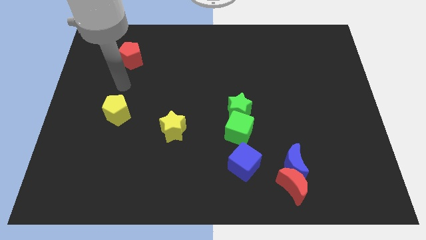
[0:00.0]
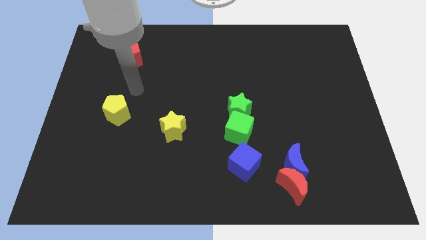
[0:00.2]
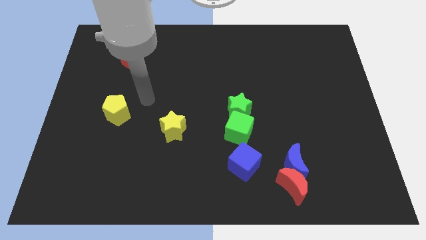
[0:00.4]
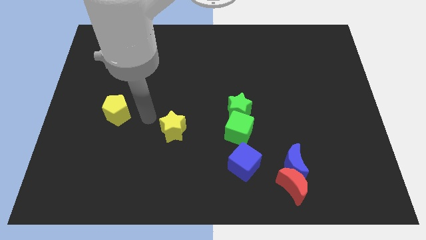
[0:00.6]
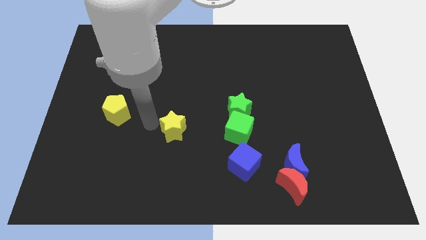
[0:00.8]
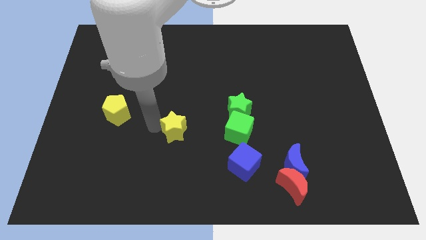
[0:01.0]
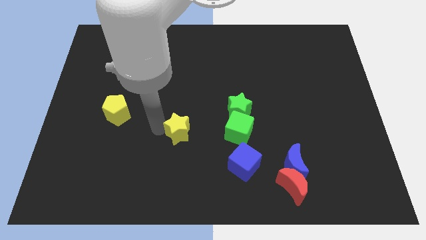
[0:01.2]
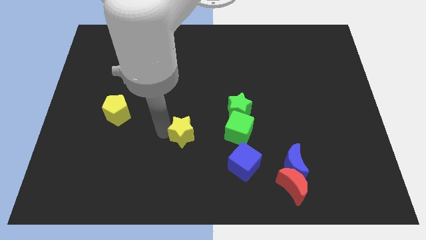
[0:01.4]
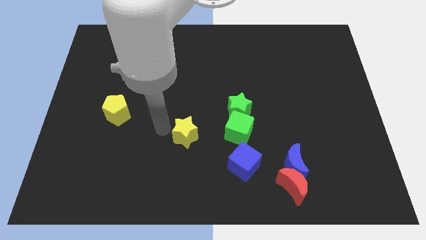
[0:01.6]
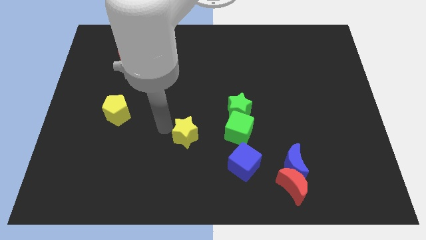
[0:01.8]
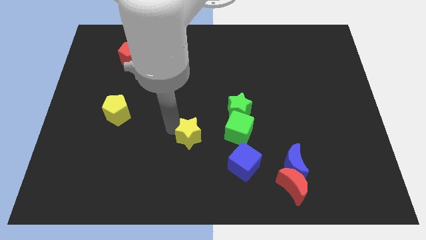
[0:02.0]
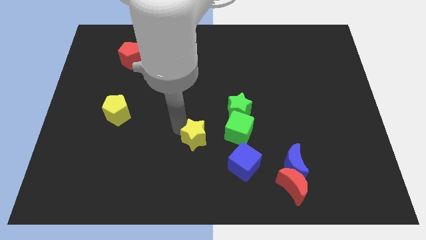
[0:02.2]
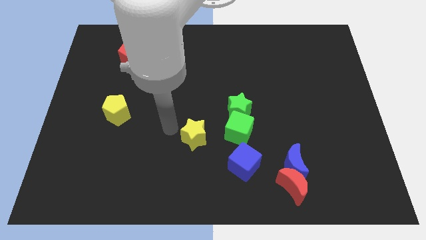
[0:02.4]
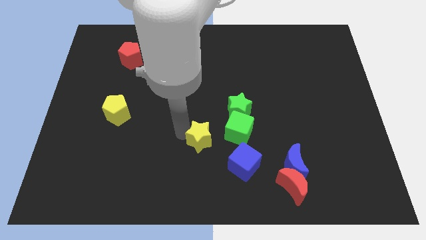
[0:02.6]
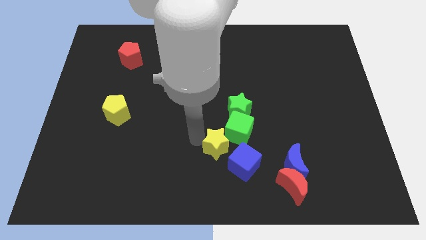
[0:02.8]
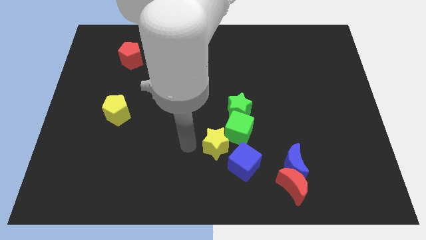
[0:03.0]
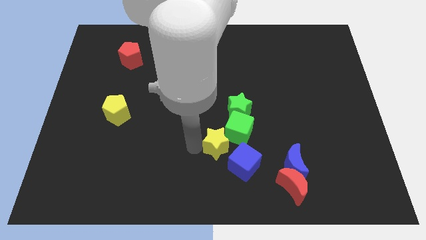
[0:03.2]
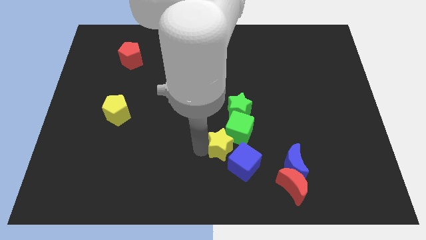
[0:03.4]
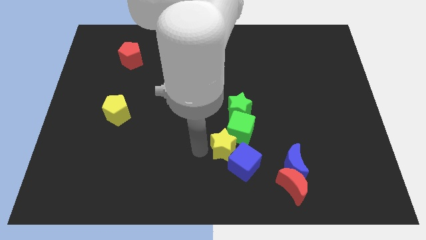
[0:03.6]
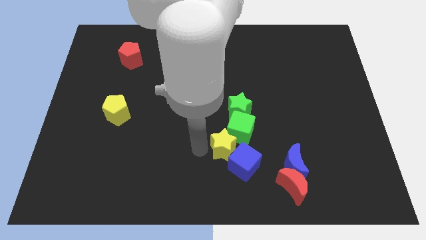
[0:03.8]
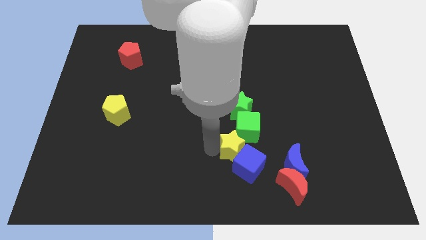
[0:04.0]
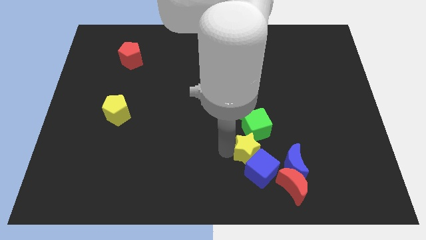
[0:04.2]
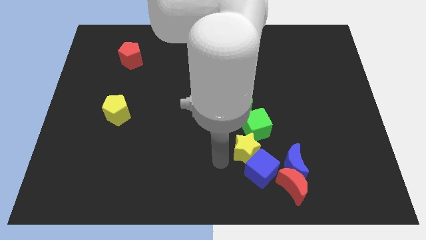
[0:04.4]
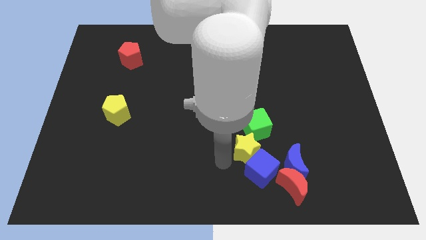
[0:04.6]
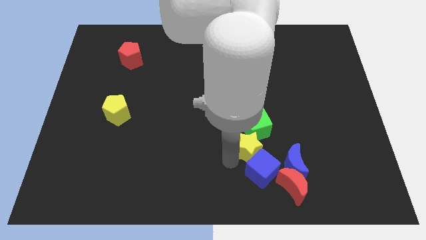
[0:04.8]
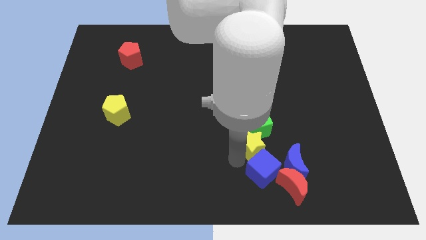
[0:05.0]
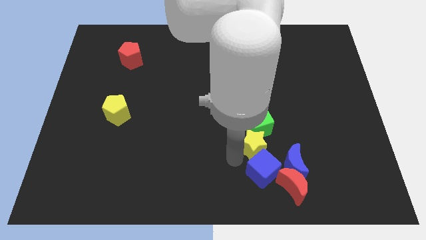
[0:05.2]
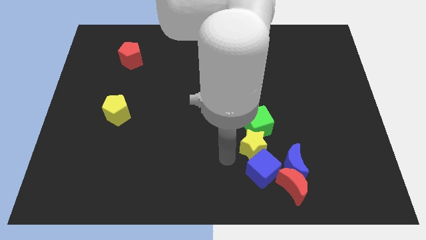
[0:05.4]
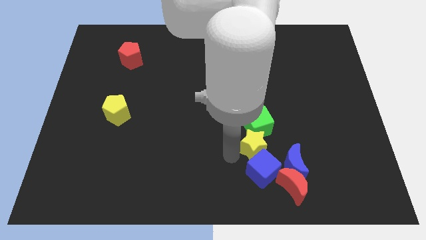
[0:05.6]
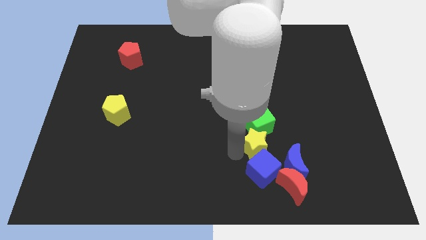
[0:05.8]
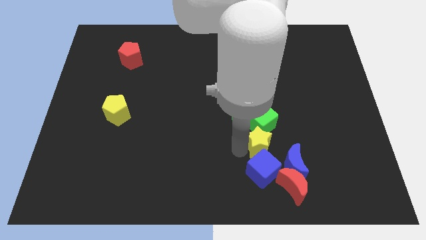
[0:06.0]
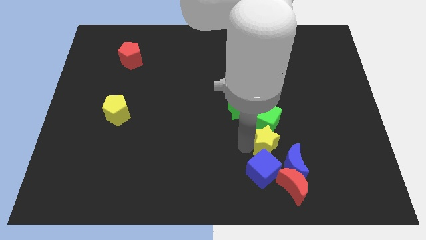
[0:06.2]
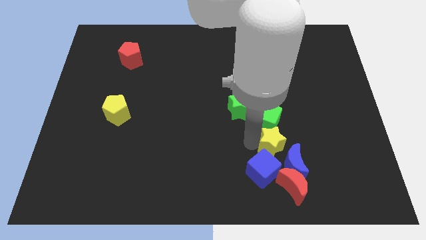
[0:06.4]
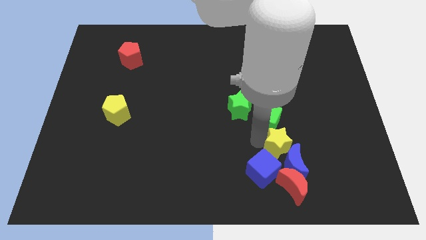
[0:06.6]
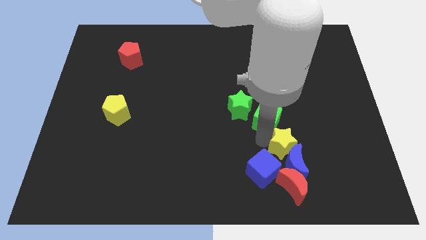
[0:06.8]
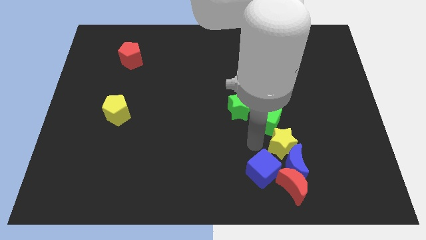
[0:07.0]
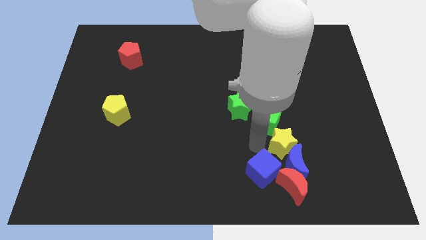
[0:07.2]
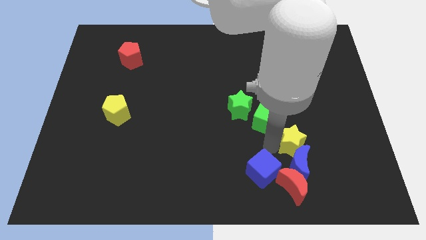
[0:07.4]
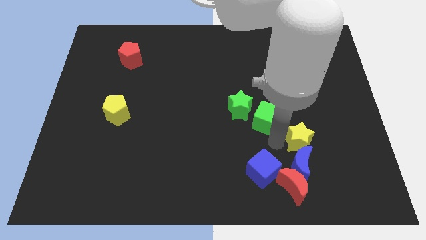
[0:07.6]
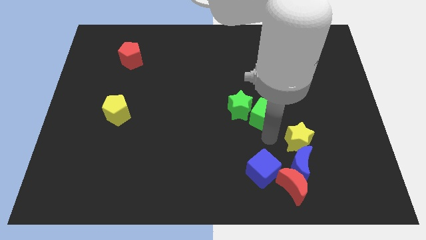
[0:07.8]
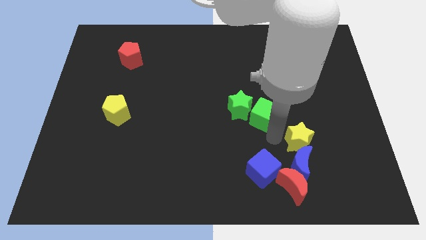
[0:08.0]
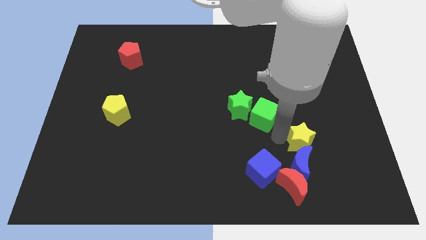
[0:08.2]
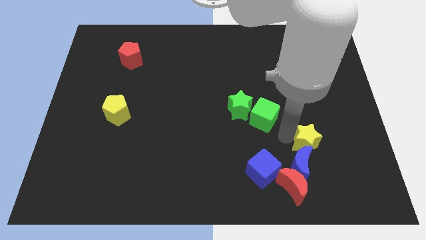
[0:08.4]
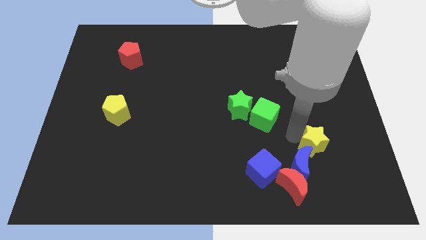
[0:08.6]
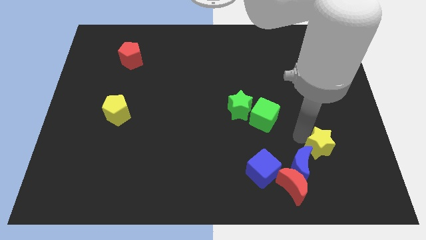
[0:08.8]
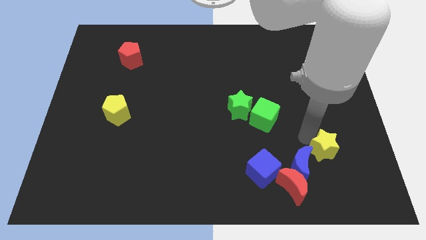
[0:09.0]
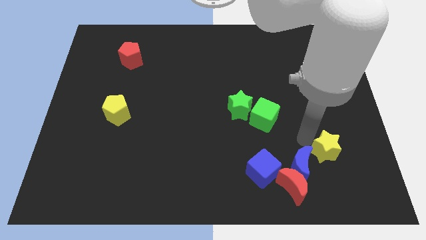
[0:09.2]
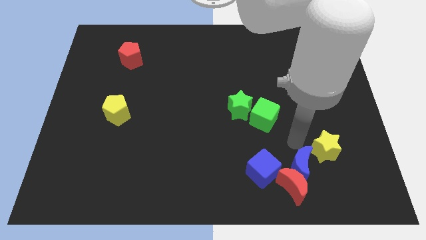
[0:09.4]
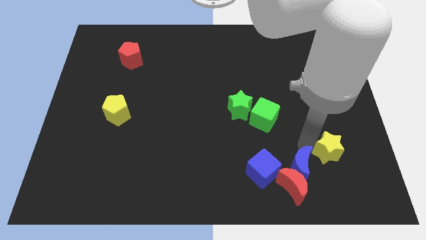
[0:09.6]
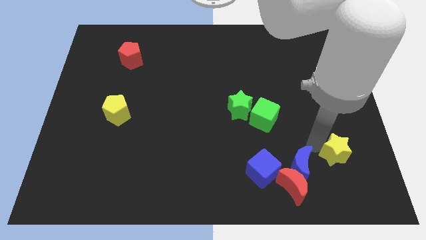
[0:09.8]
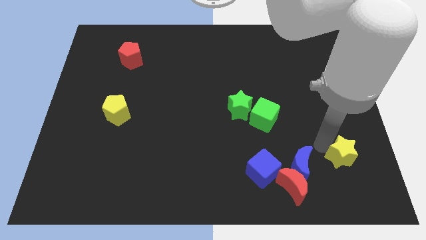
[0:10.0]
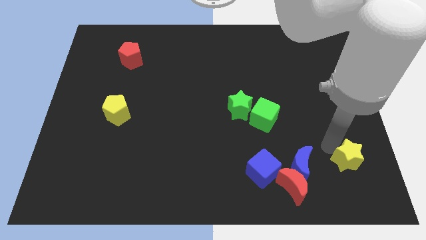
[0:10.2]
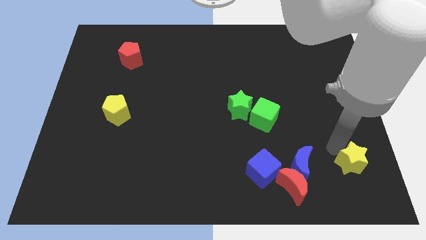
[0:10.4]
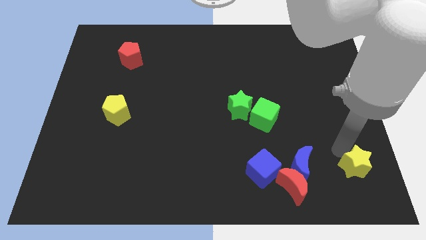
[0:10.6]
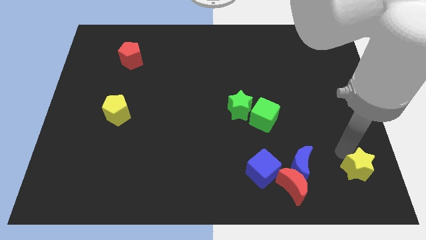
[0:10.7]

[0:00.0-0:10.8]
put the yellow star to the bottom right of the board

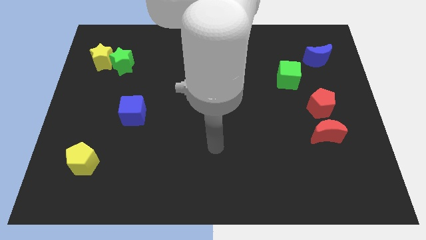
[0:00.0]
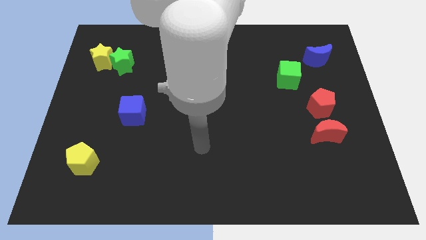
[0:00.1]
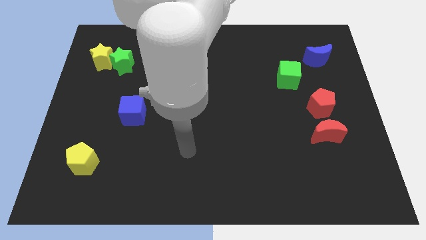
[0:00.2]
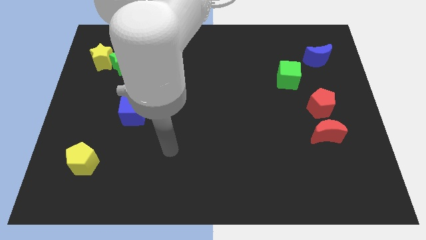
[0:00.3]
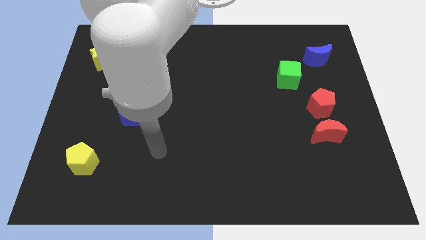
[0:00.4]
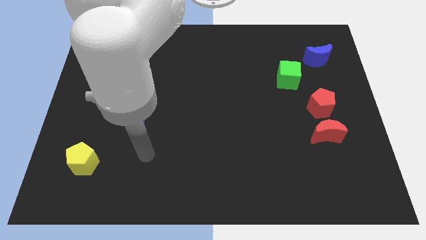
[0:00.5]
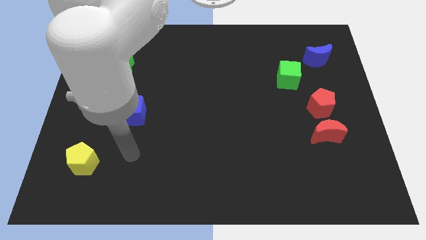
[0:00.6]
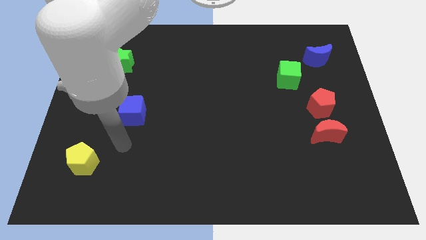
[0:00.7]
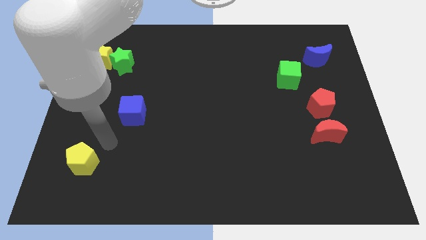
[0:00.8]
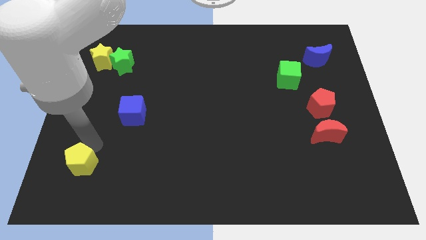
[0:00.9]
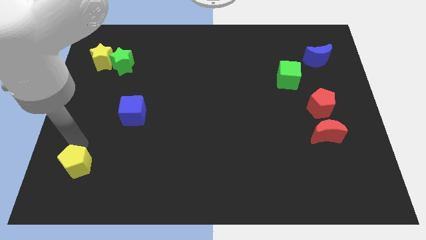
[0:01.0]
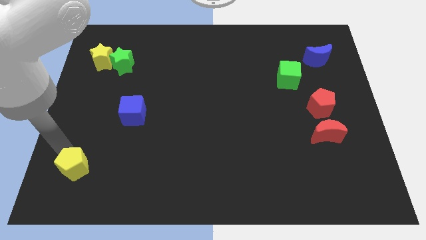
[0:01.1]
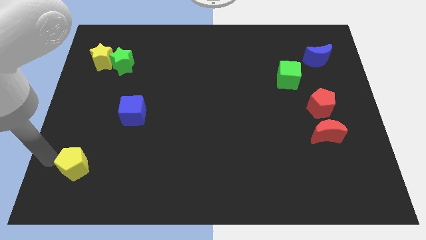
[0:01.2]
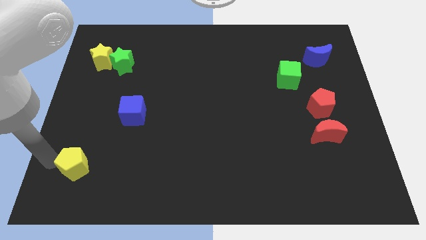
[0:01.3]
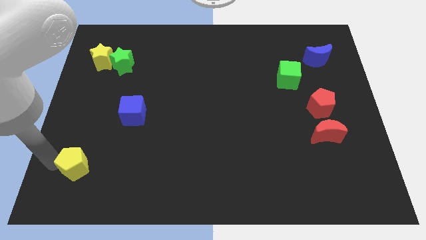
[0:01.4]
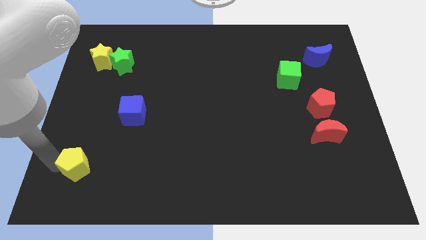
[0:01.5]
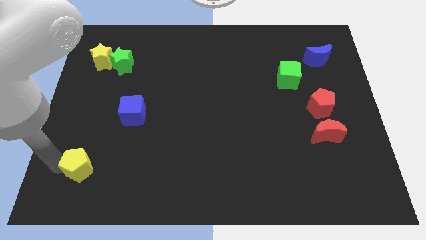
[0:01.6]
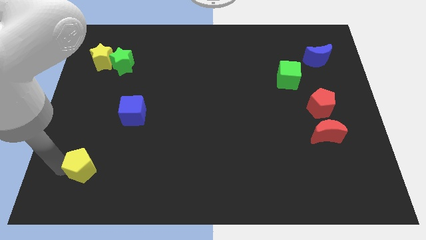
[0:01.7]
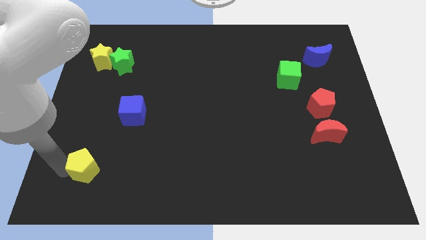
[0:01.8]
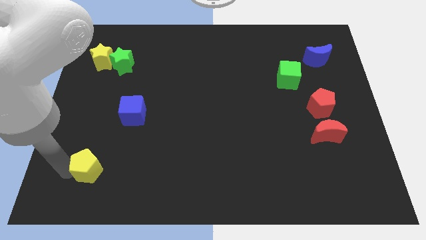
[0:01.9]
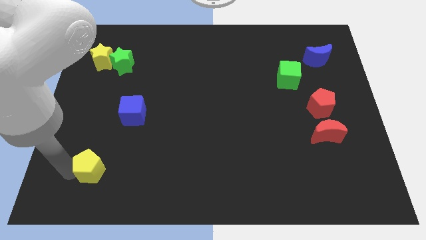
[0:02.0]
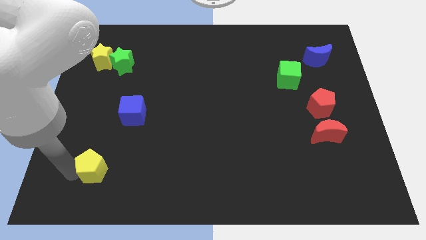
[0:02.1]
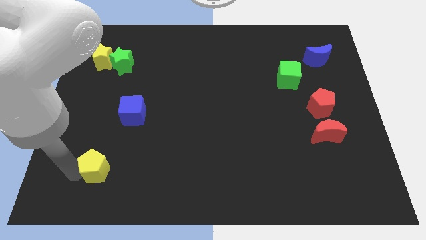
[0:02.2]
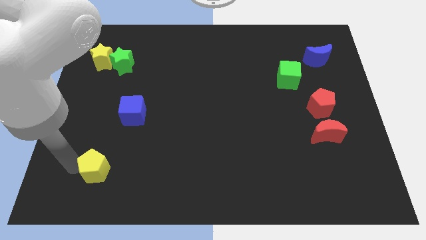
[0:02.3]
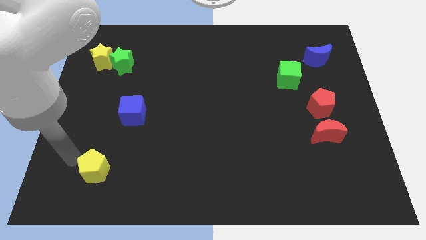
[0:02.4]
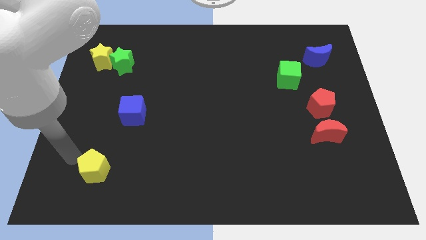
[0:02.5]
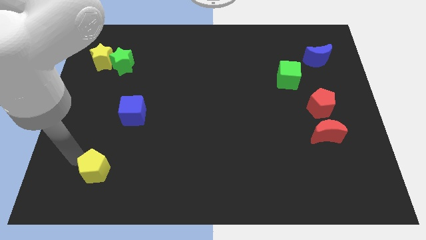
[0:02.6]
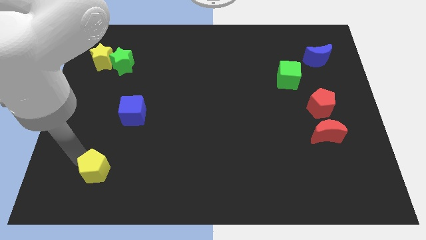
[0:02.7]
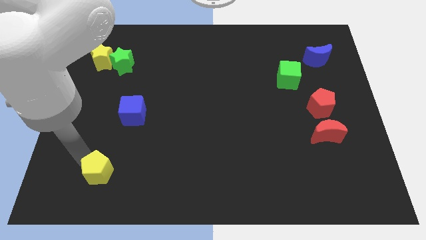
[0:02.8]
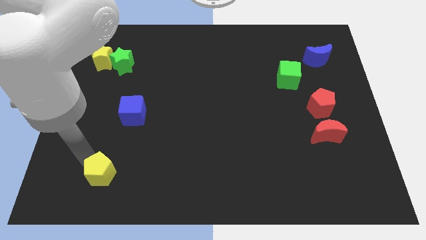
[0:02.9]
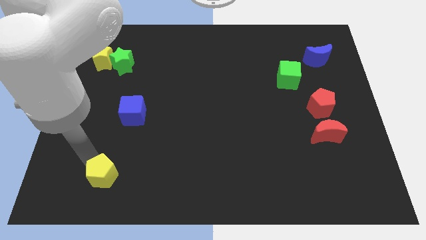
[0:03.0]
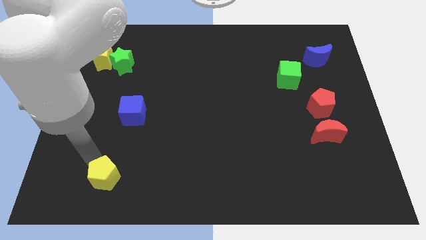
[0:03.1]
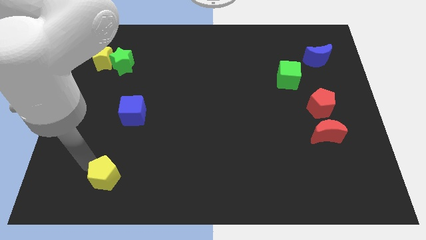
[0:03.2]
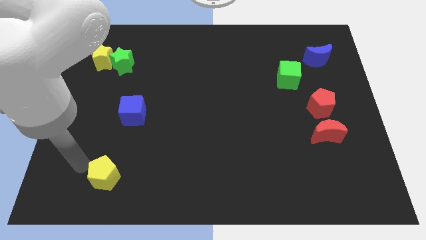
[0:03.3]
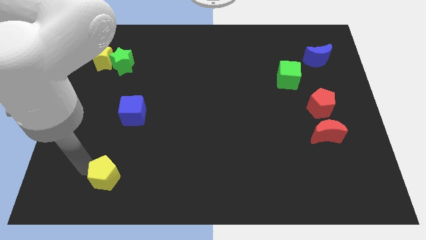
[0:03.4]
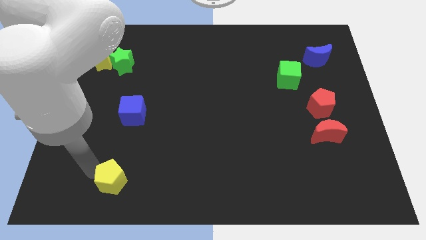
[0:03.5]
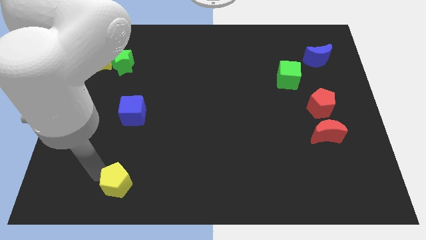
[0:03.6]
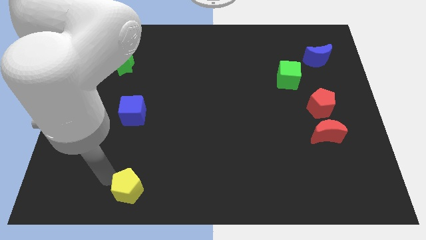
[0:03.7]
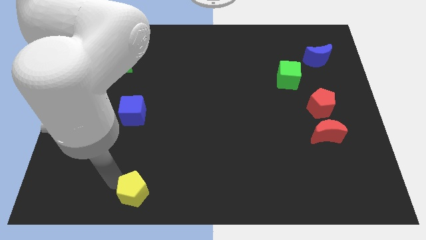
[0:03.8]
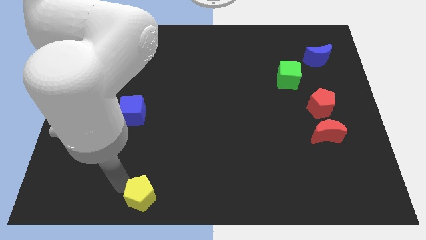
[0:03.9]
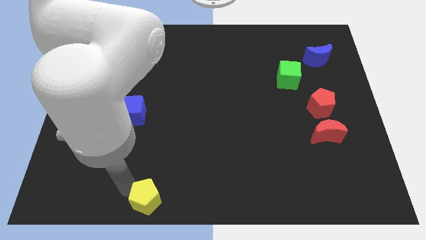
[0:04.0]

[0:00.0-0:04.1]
move the yellow pentagon to the bottom side
